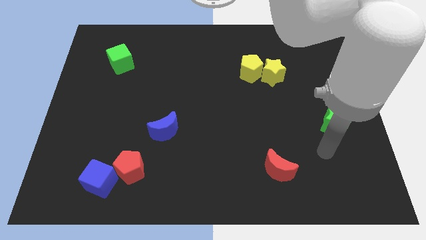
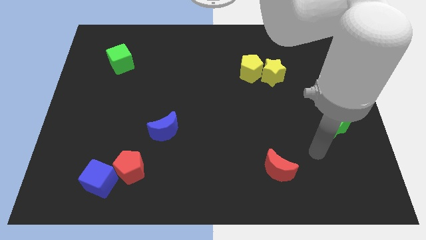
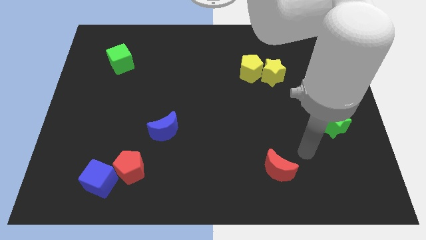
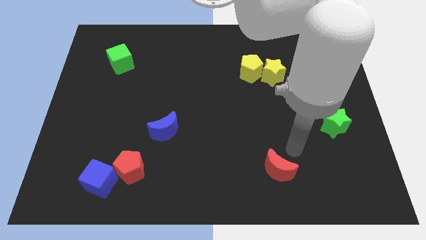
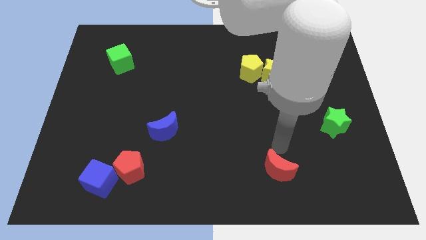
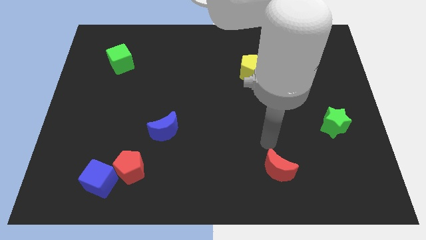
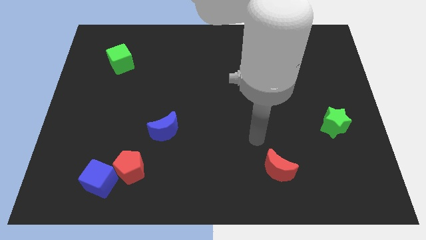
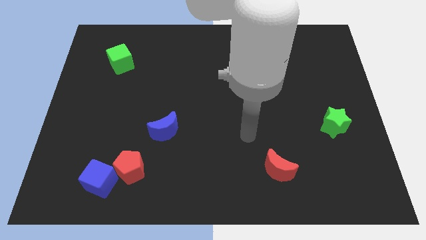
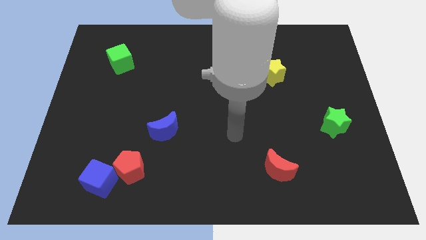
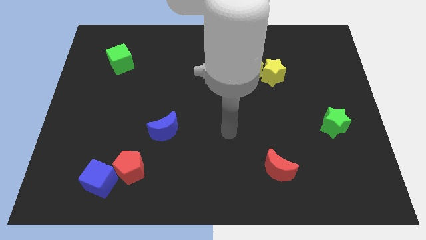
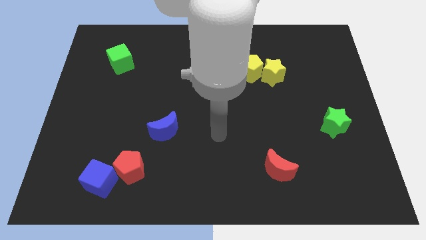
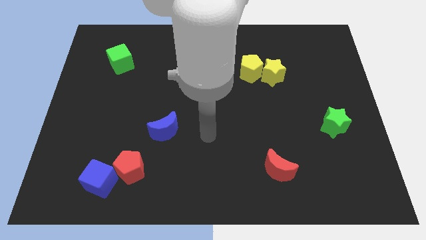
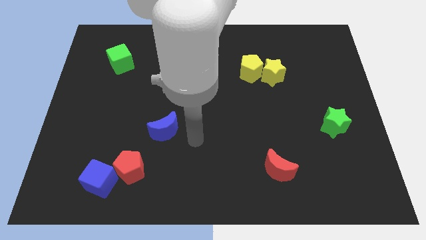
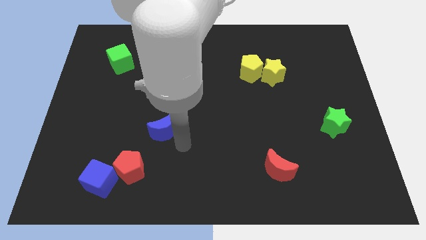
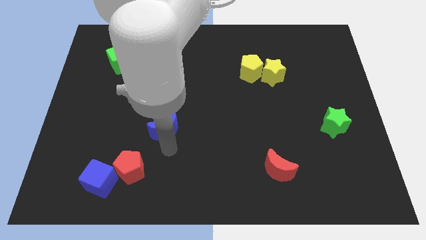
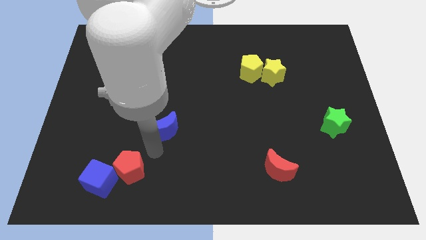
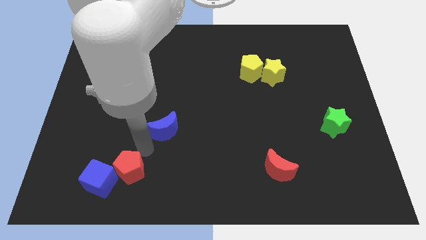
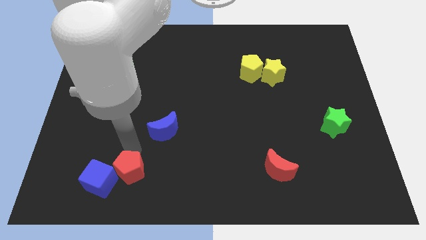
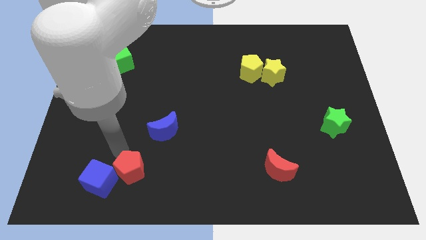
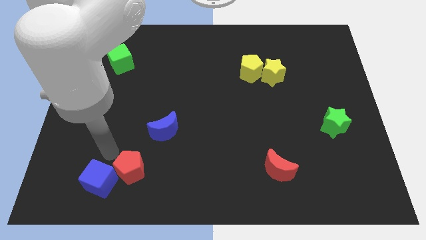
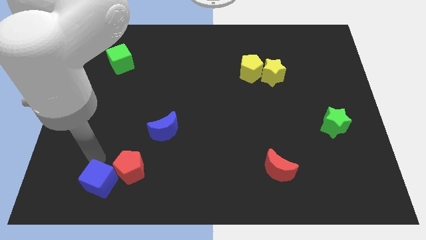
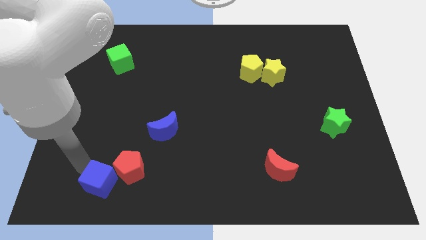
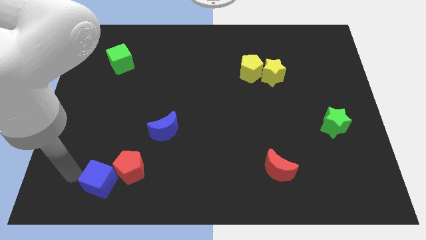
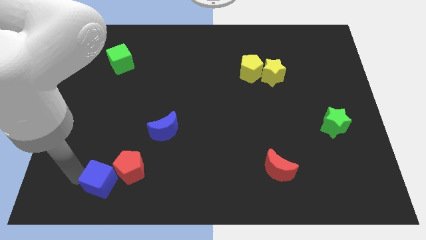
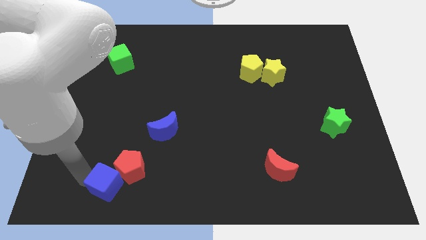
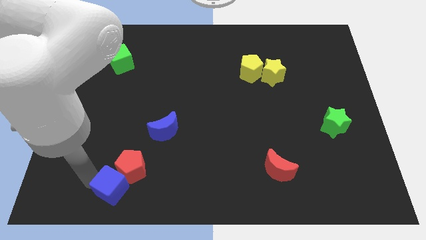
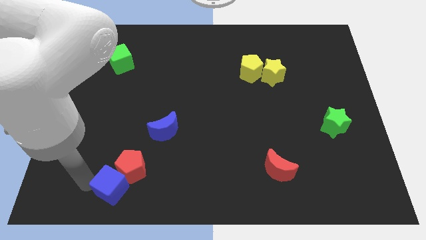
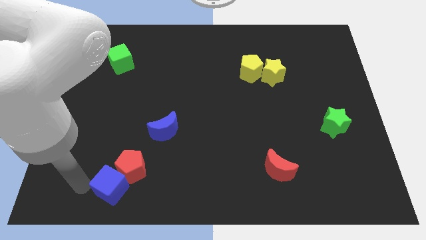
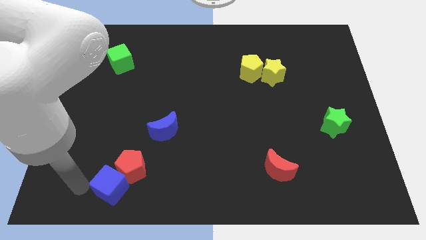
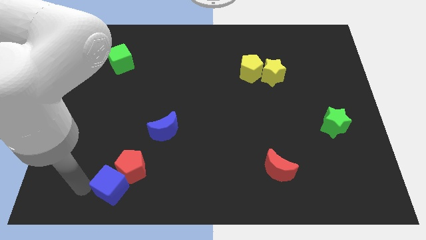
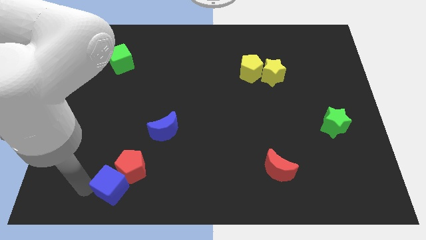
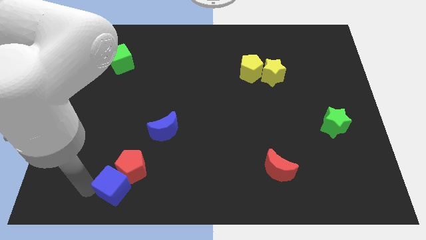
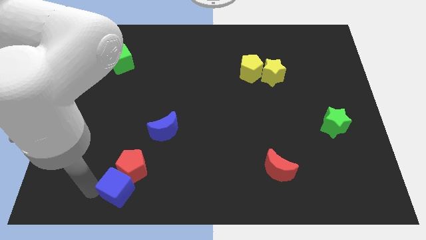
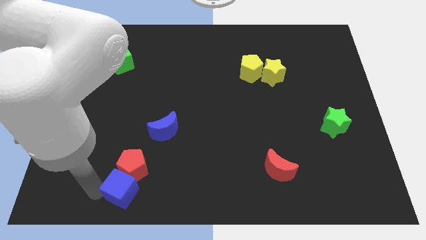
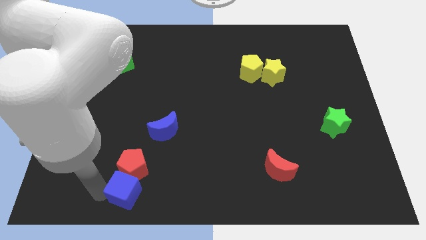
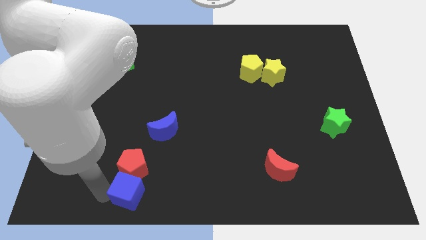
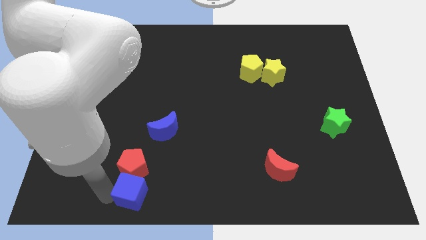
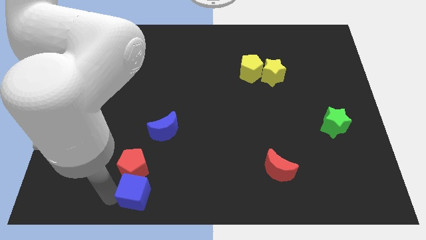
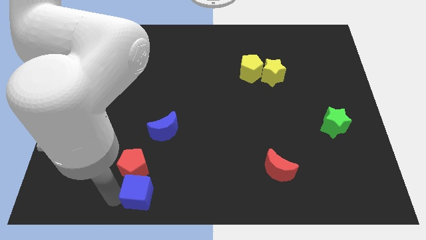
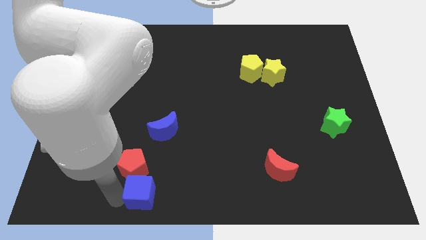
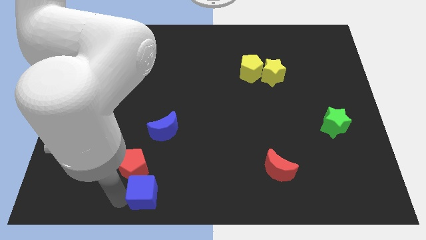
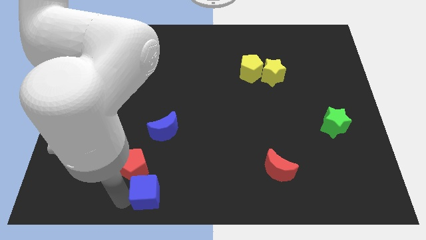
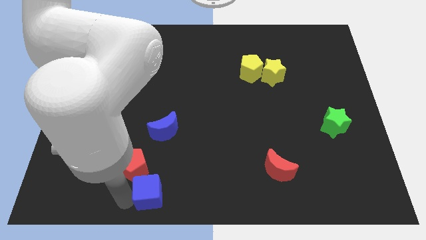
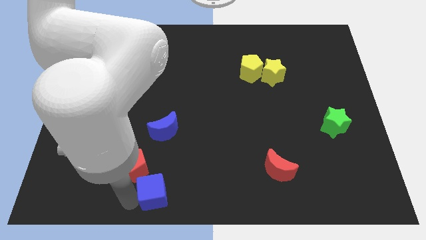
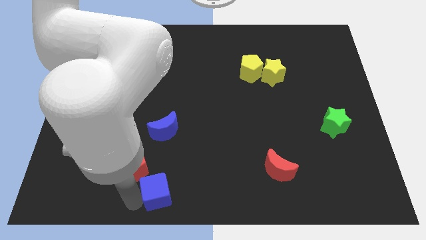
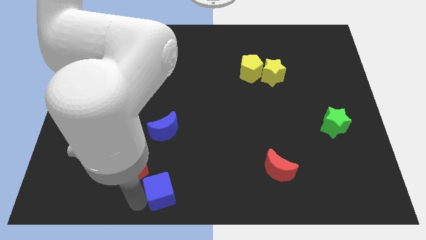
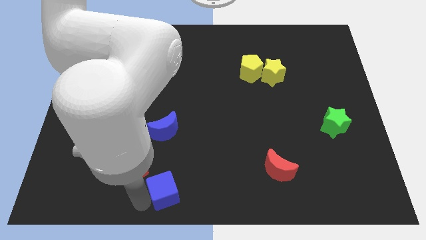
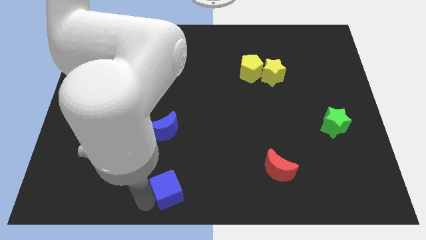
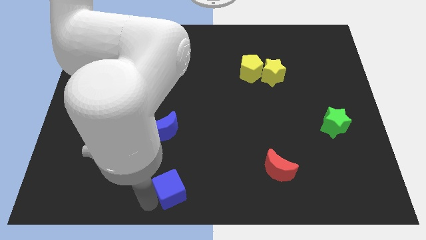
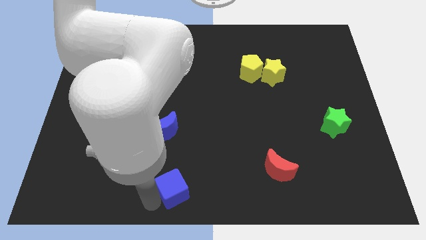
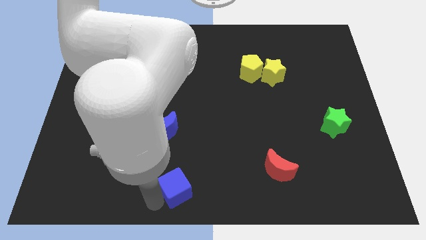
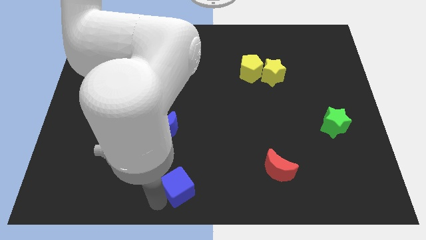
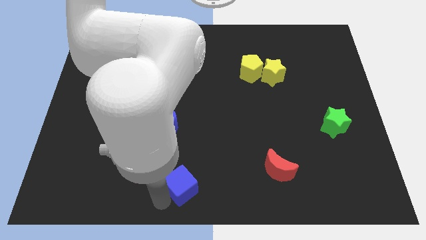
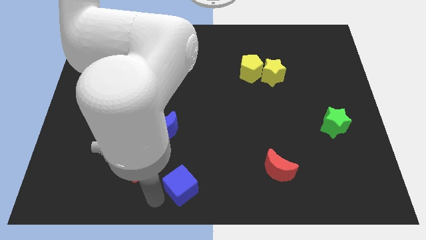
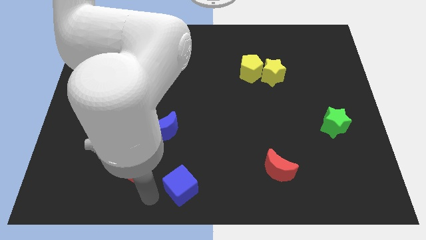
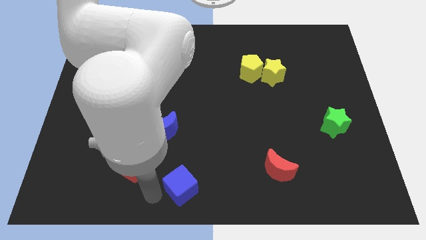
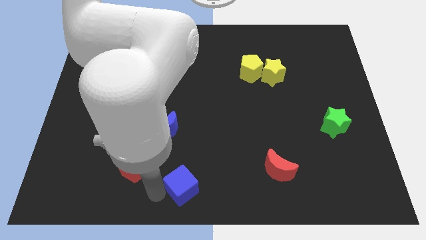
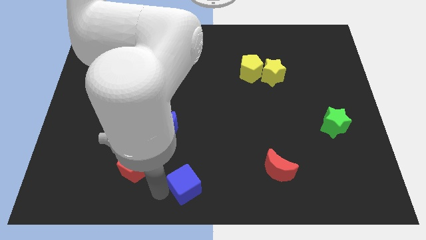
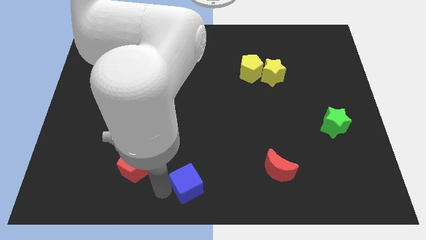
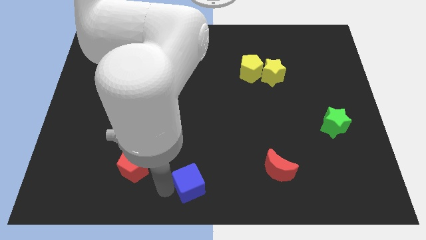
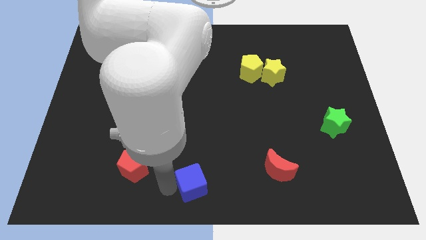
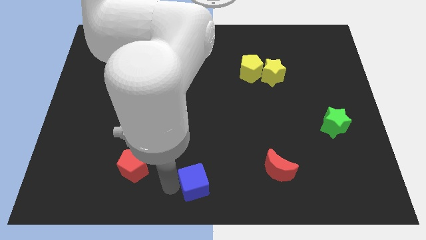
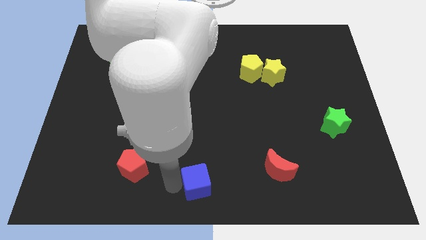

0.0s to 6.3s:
push the blue cube to the right

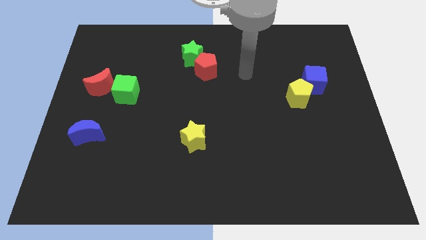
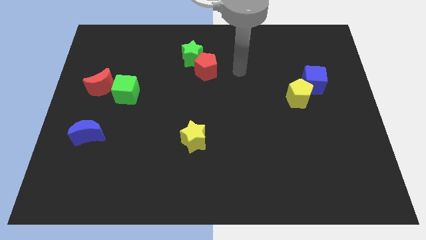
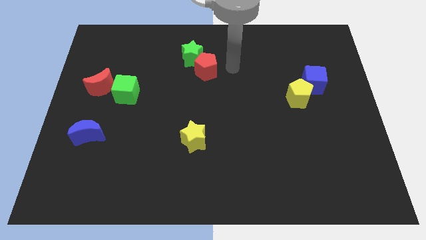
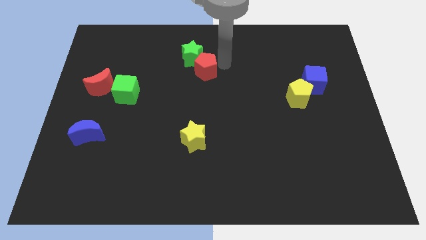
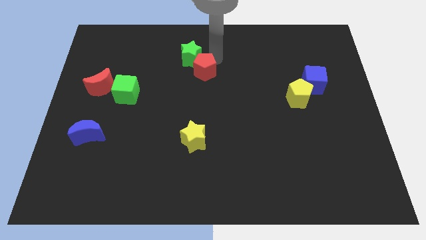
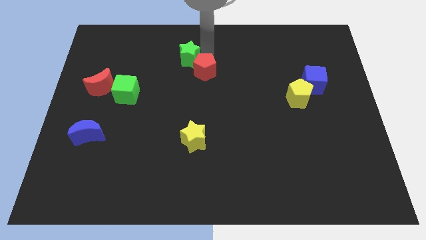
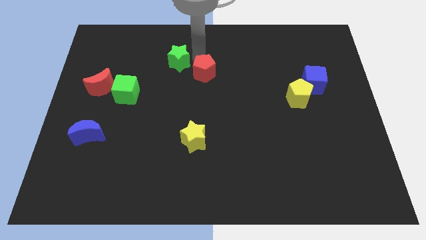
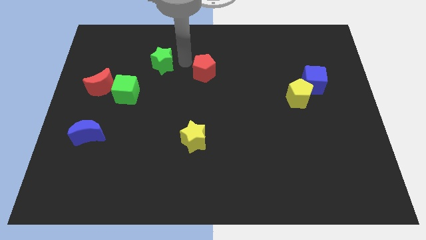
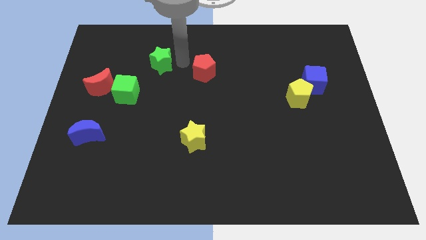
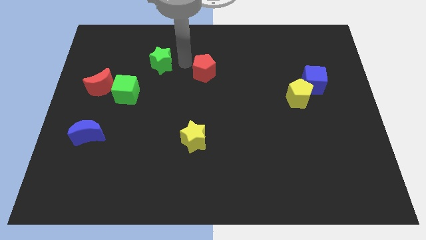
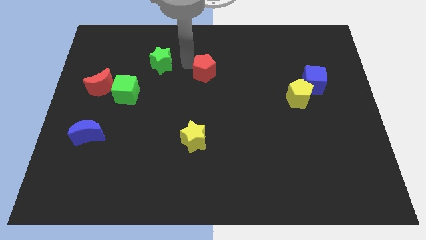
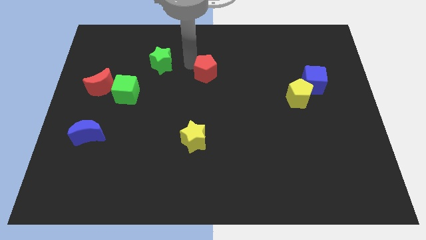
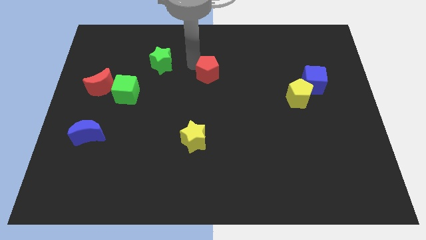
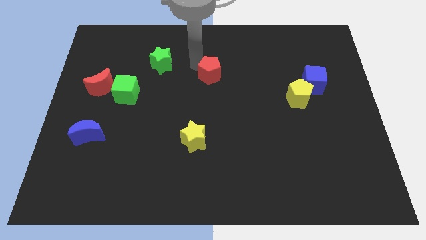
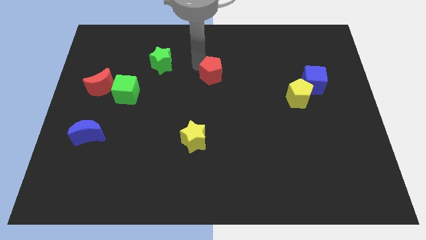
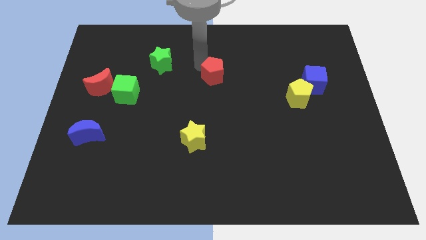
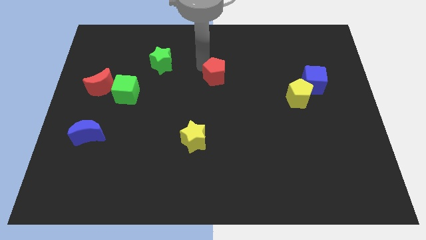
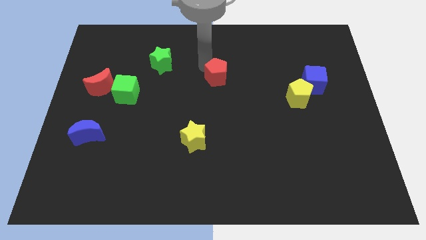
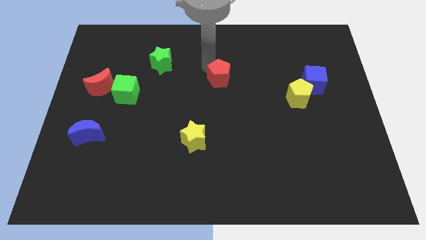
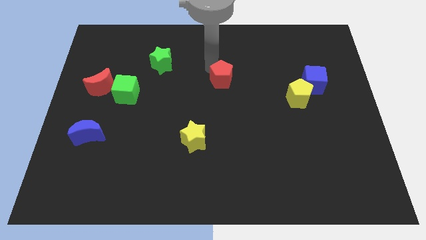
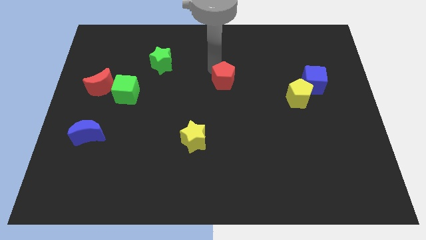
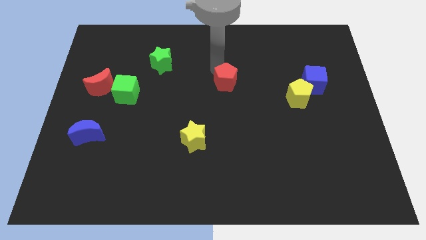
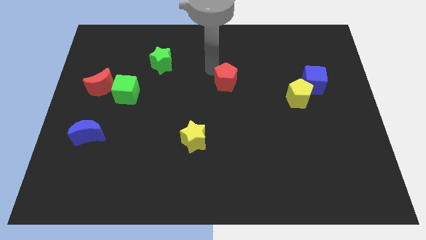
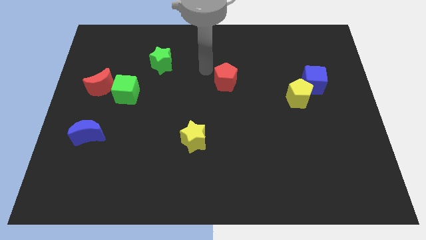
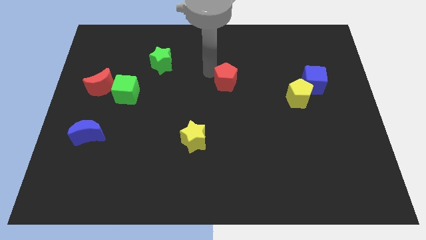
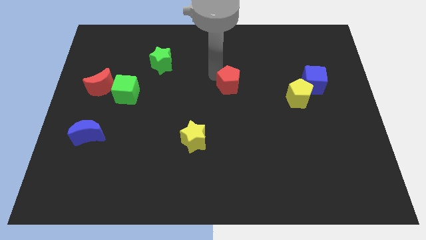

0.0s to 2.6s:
slightly slide the red pentagon down and to the right
